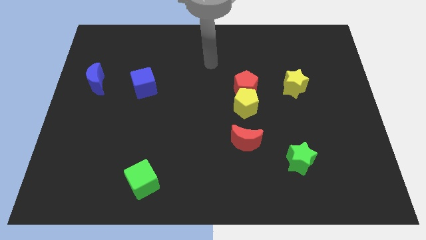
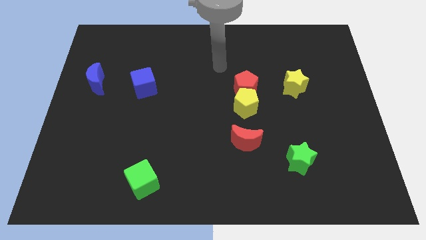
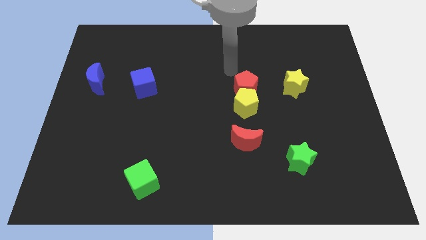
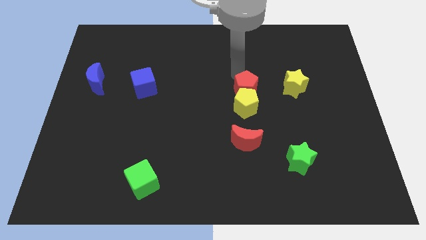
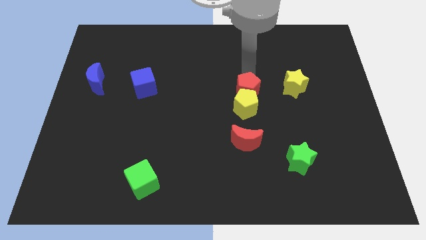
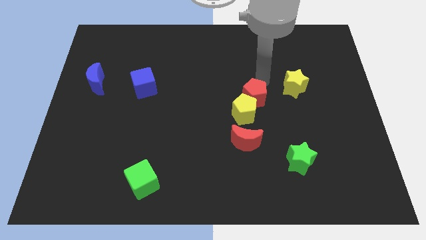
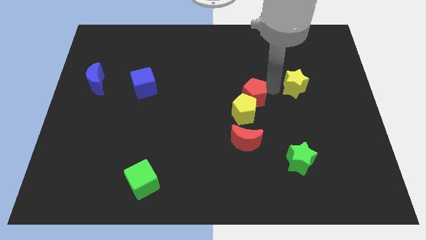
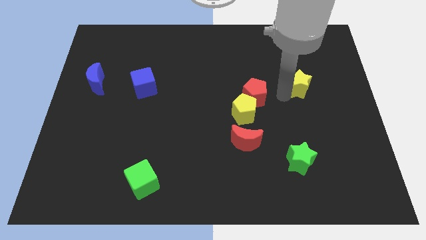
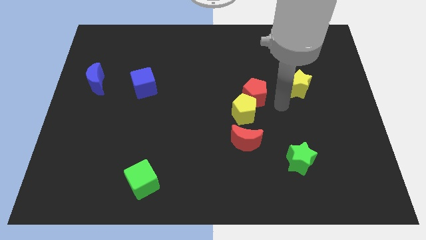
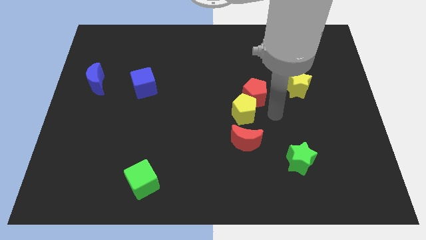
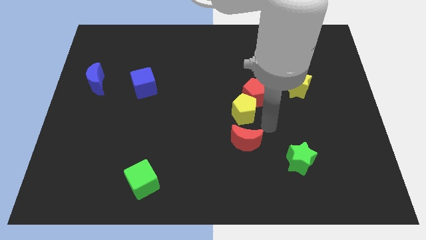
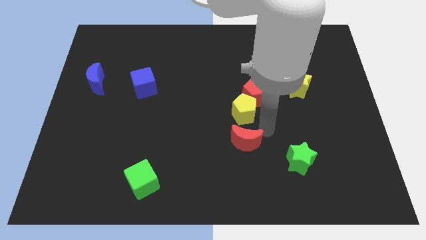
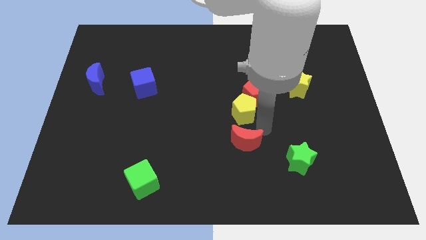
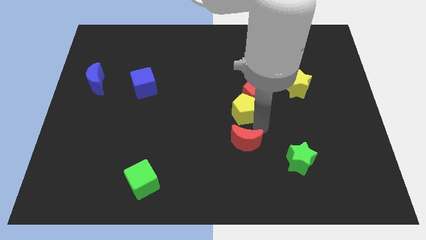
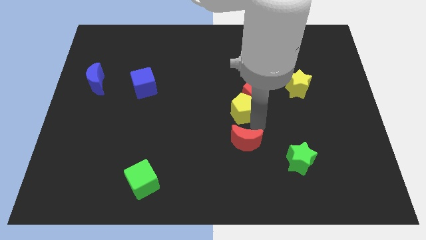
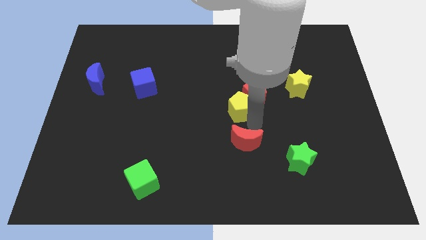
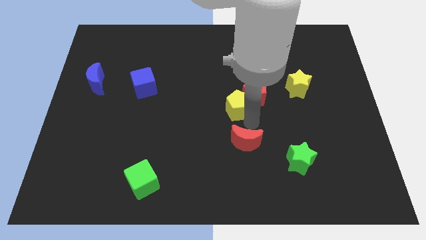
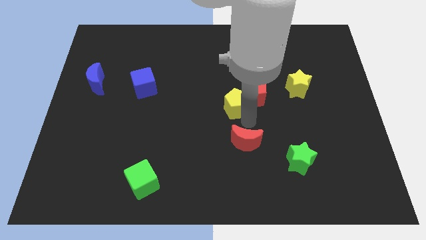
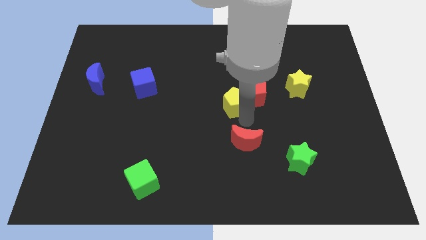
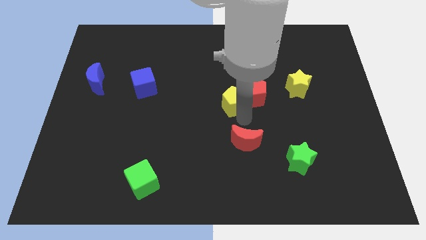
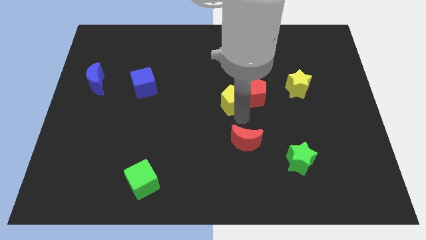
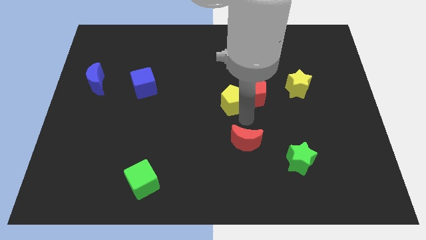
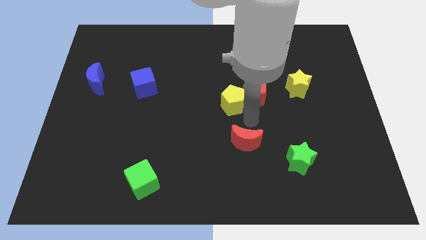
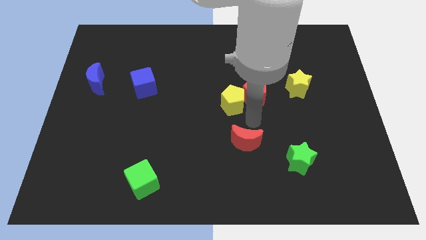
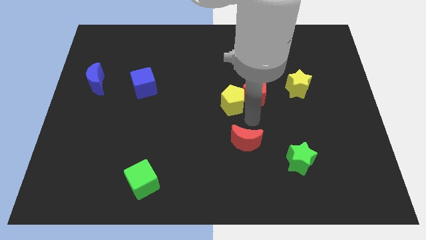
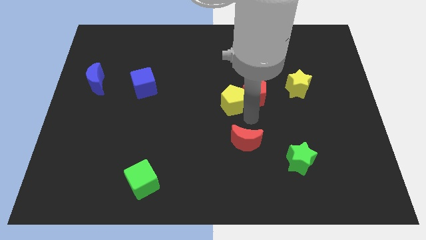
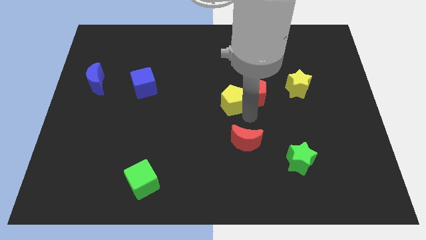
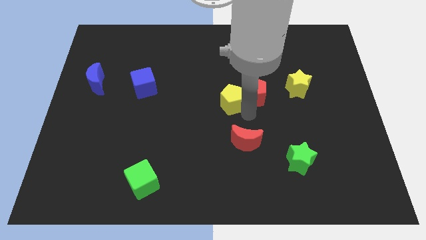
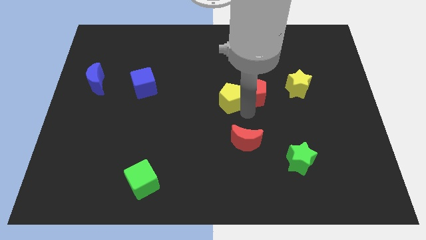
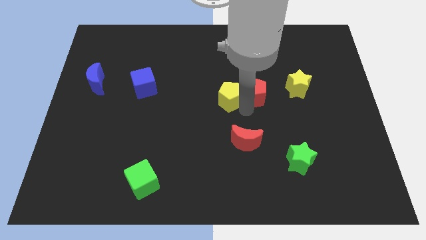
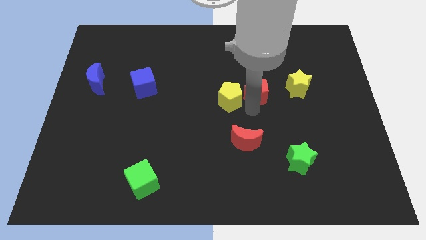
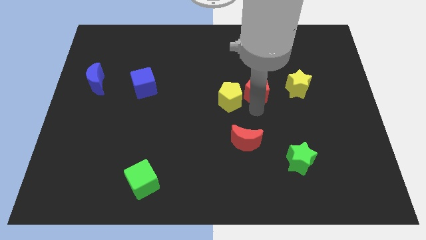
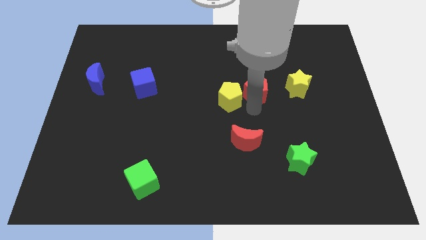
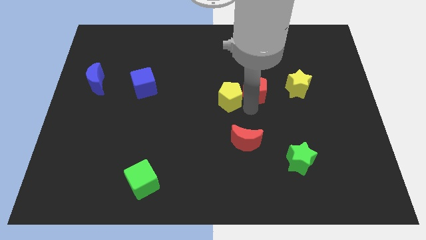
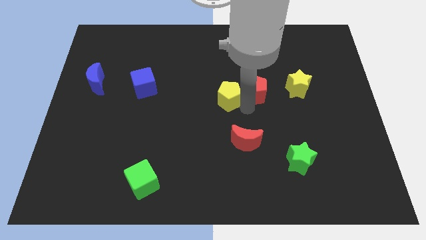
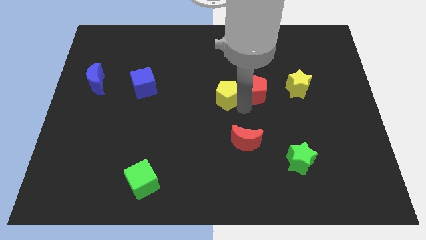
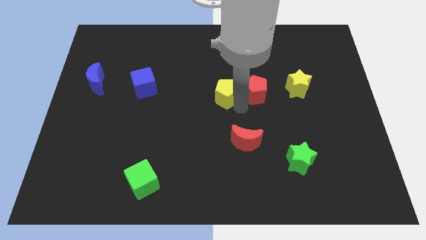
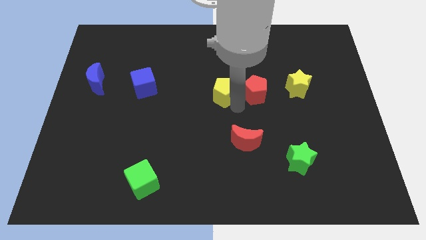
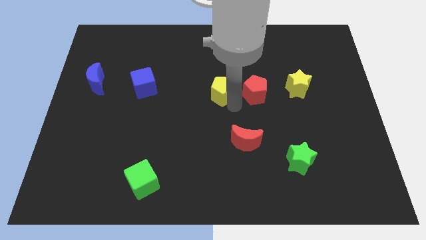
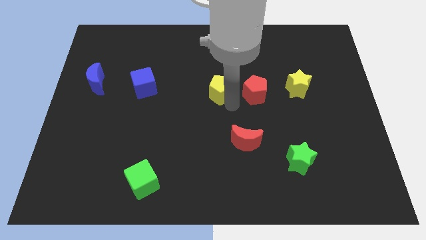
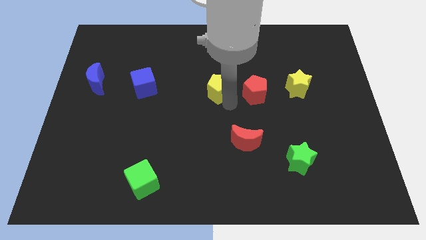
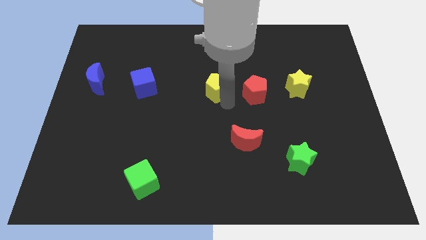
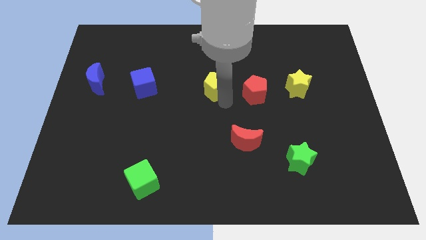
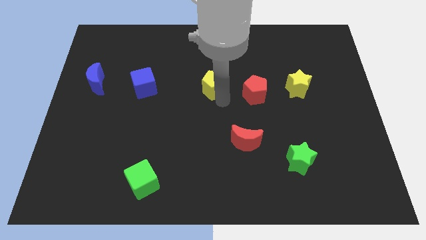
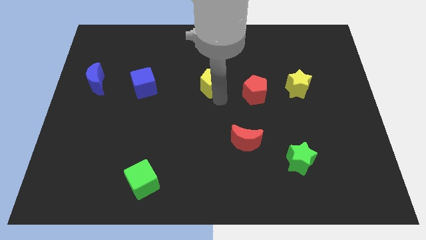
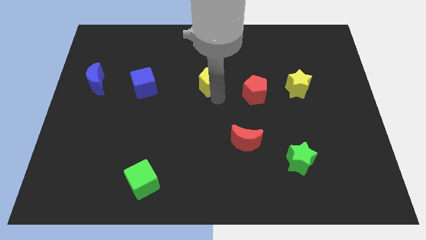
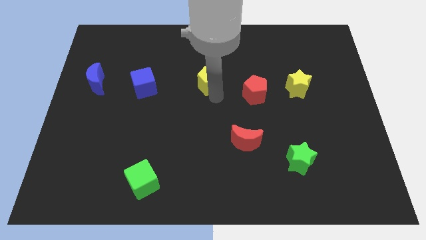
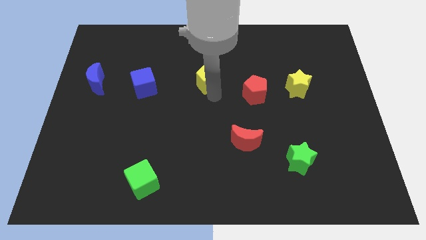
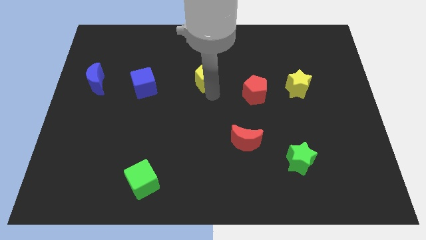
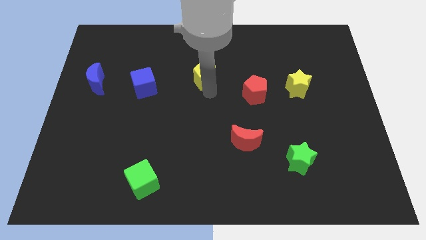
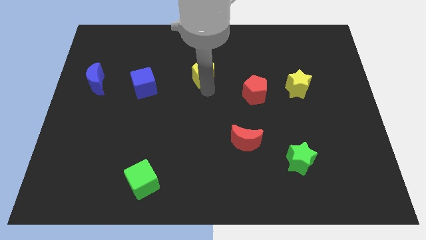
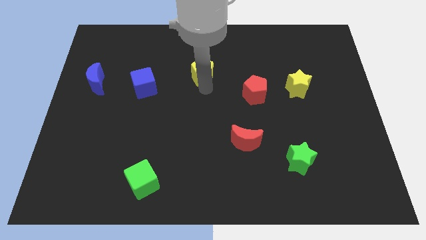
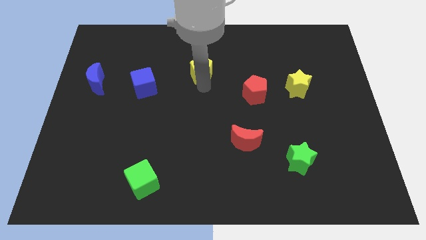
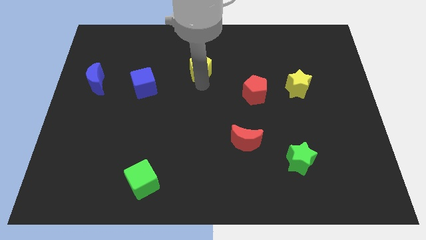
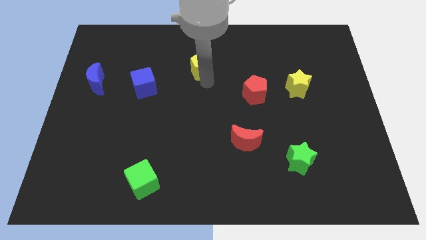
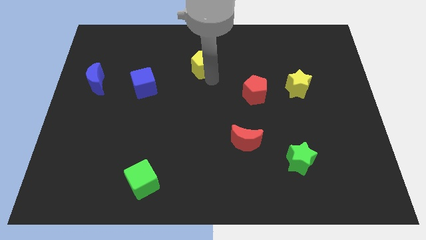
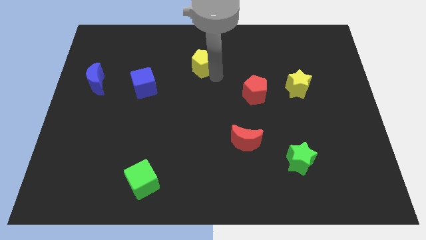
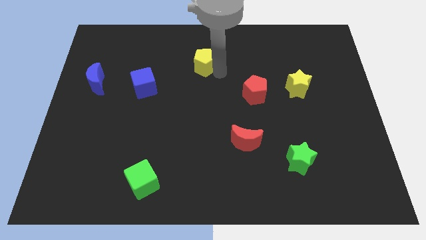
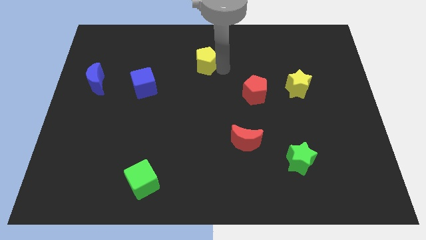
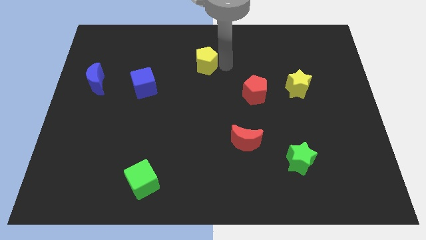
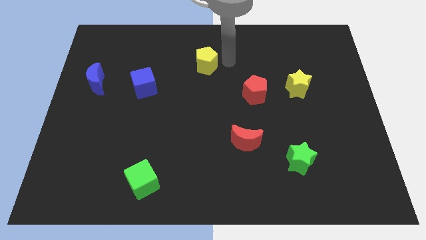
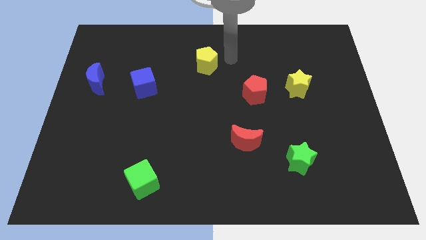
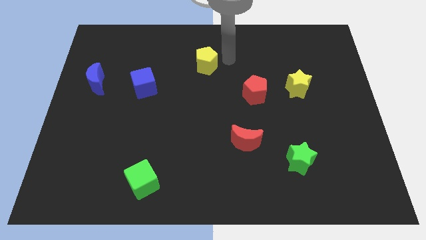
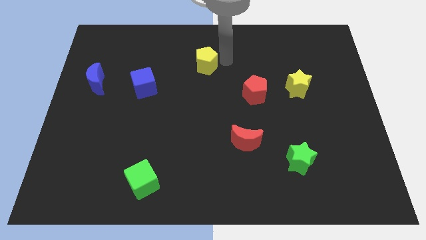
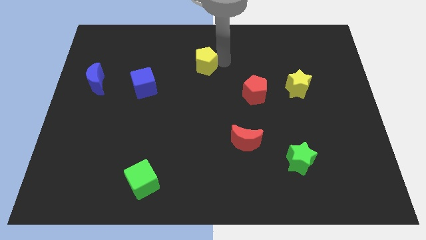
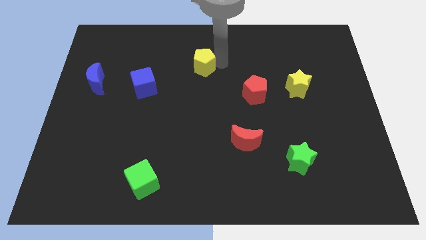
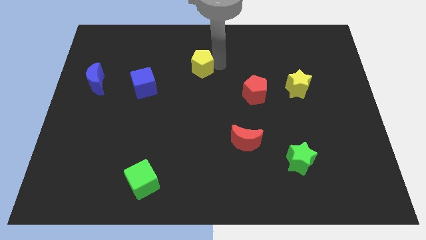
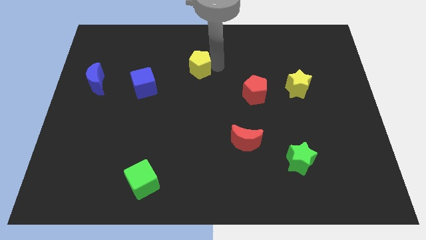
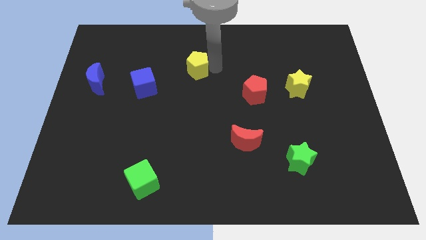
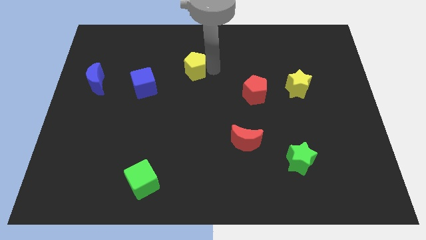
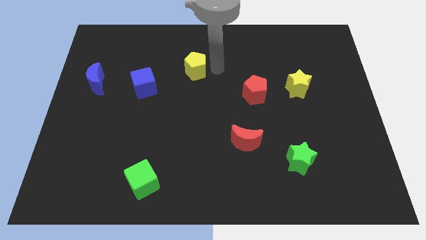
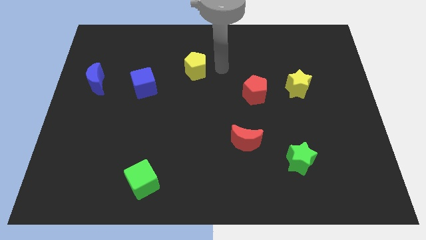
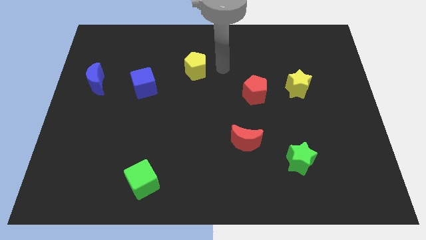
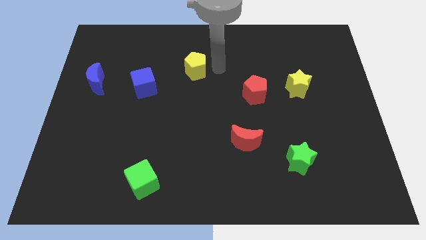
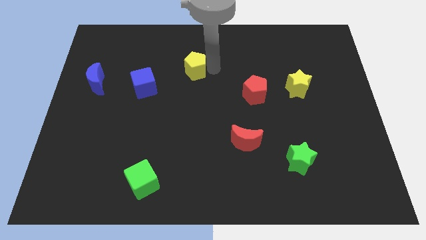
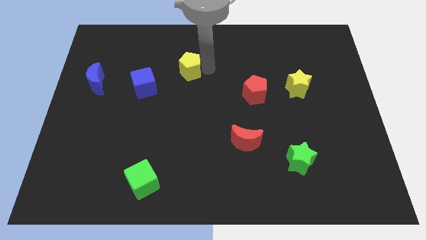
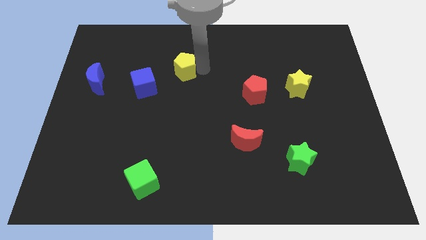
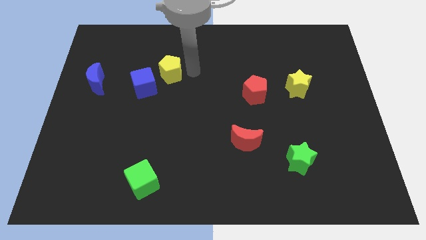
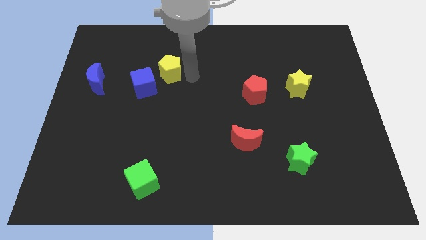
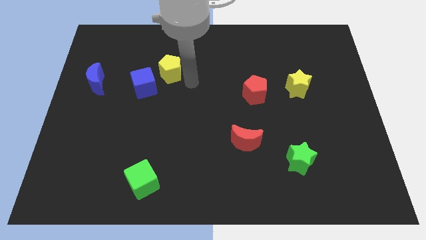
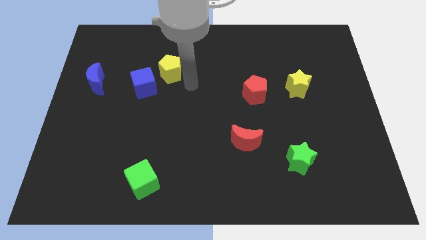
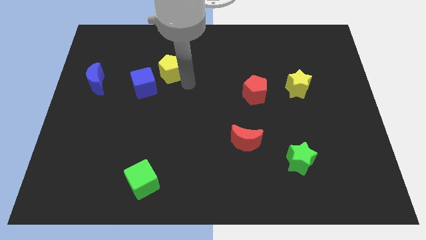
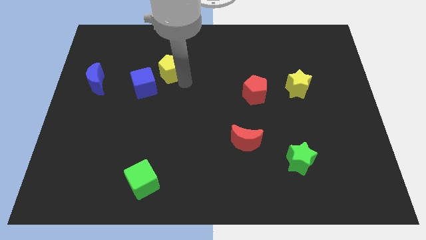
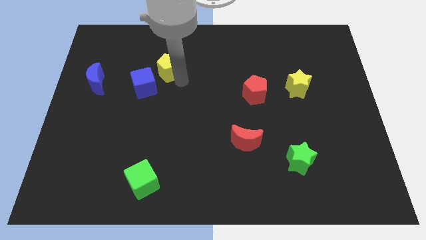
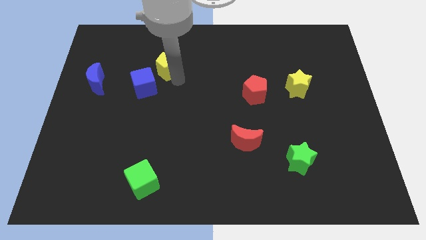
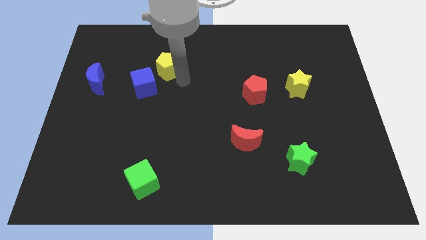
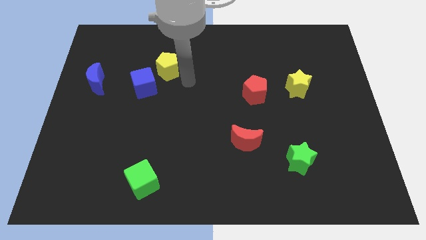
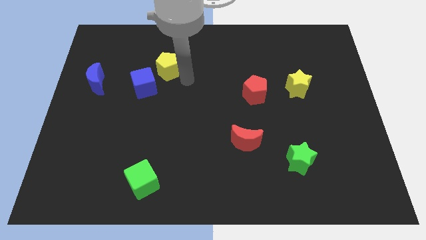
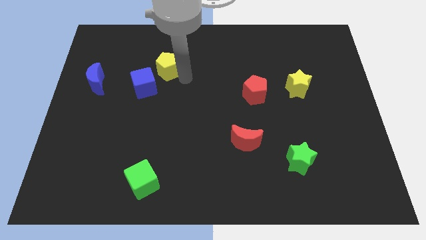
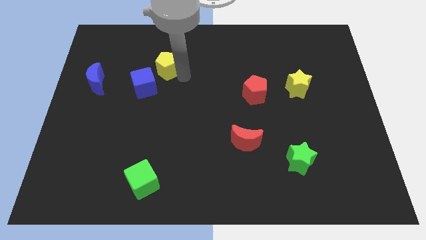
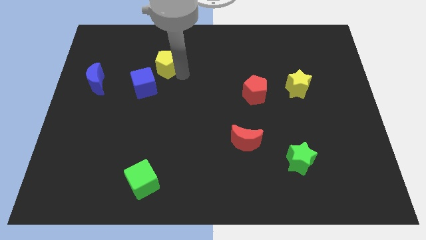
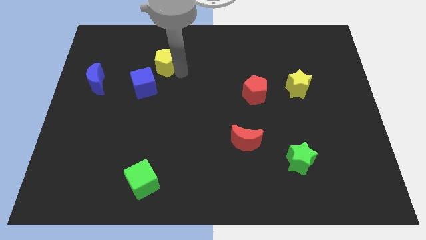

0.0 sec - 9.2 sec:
push the yellow pentagon to the top of the blue cube
